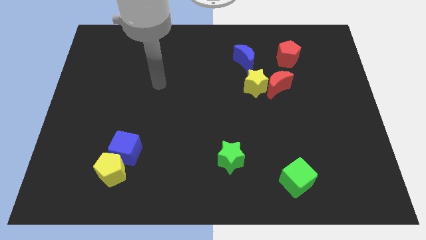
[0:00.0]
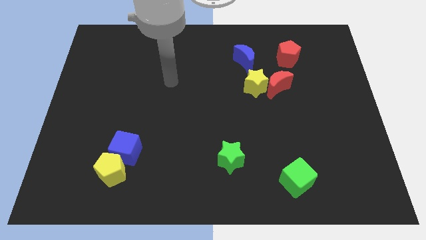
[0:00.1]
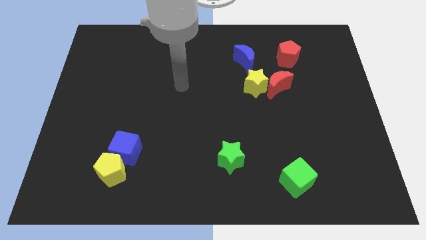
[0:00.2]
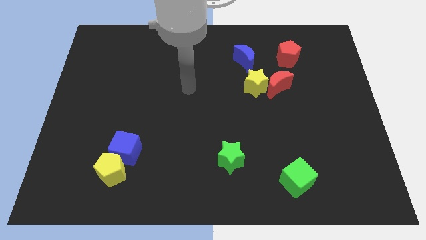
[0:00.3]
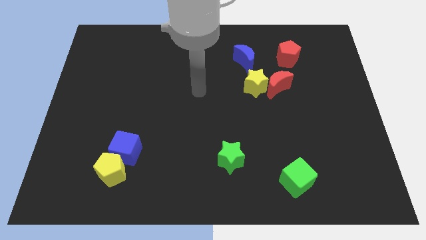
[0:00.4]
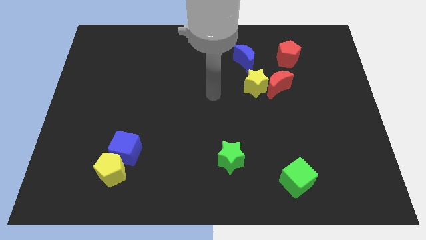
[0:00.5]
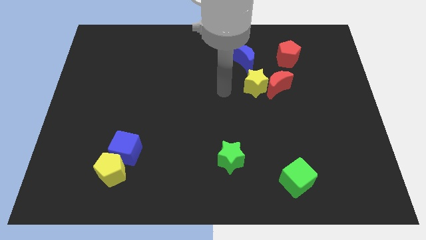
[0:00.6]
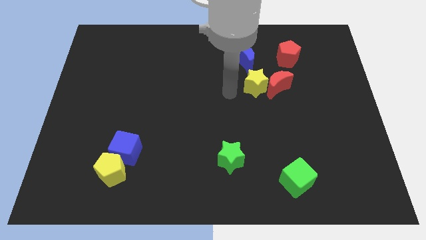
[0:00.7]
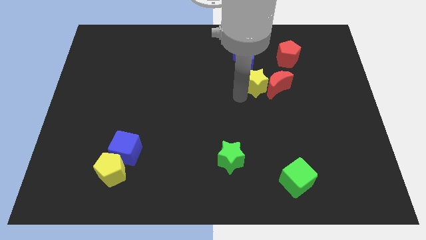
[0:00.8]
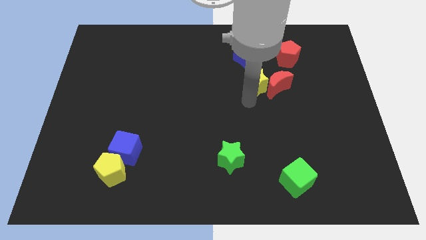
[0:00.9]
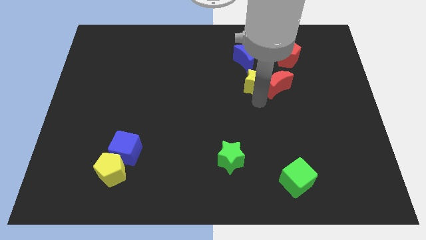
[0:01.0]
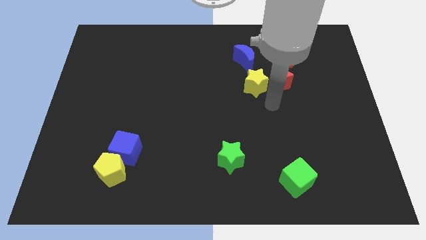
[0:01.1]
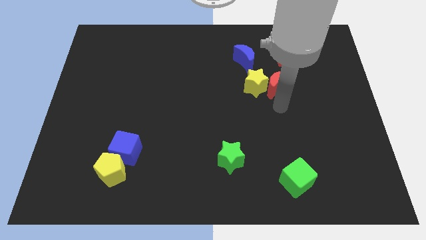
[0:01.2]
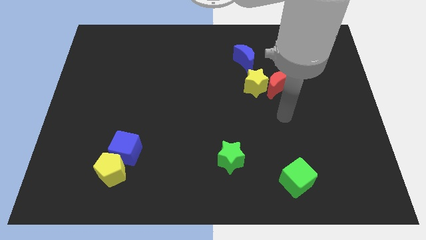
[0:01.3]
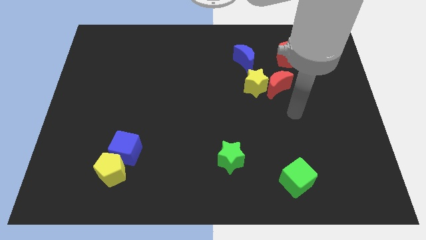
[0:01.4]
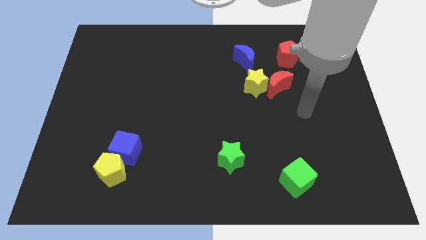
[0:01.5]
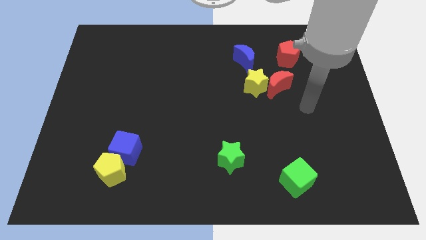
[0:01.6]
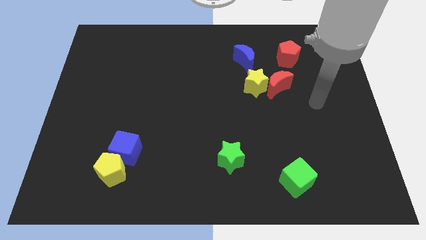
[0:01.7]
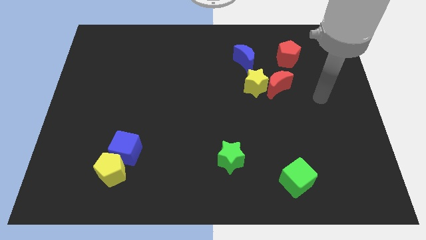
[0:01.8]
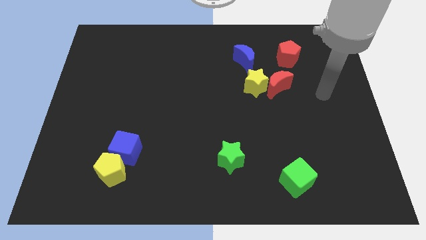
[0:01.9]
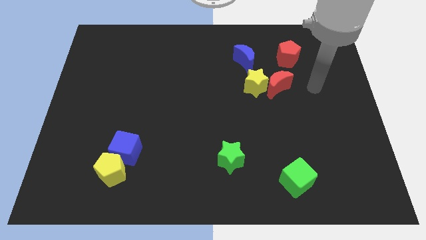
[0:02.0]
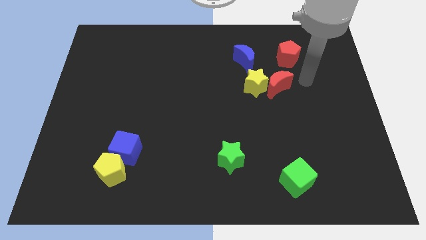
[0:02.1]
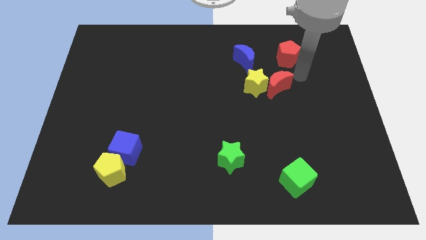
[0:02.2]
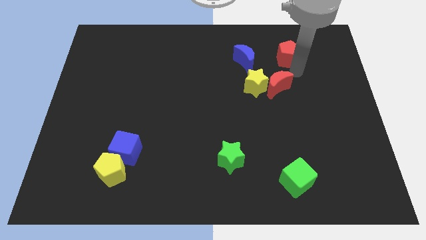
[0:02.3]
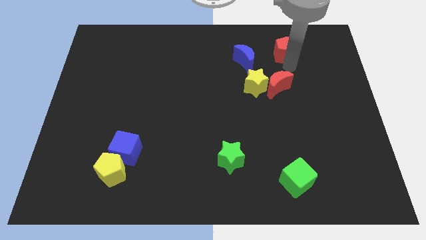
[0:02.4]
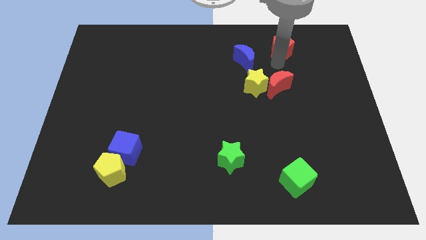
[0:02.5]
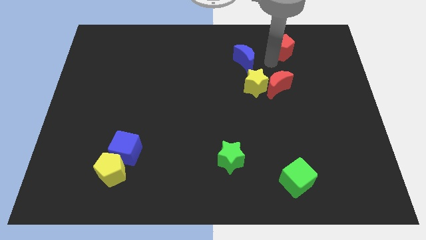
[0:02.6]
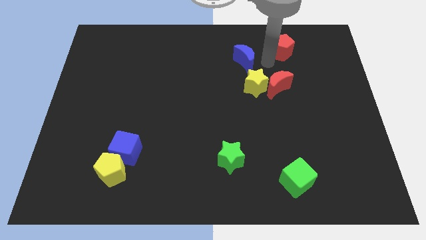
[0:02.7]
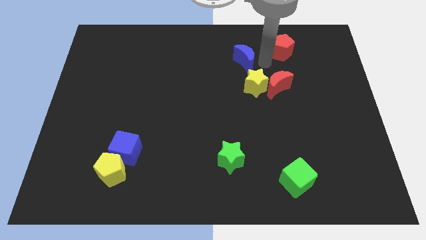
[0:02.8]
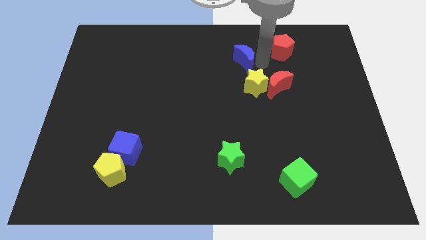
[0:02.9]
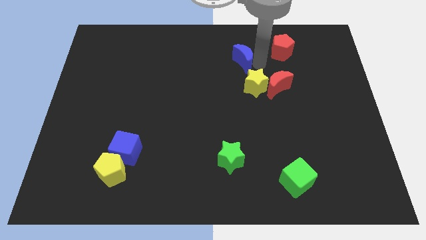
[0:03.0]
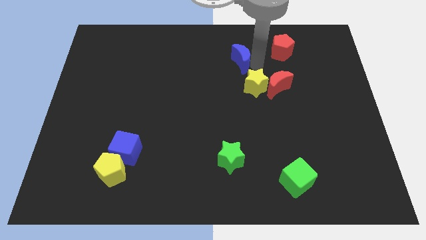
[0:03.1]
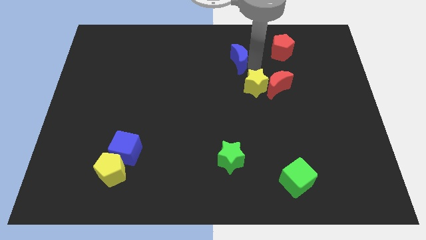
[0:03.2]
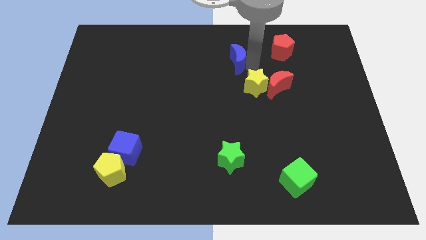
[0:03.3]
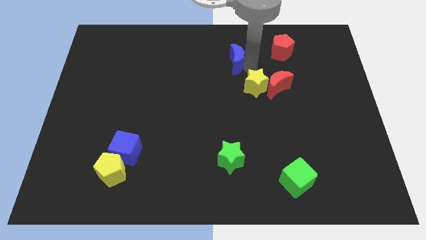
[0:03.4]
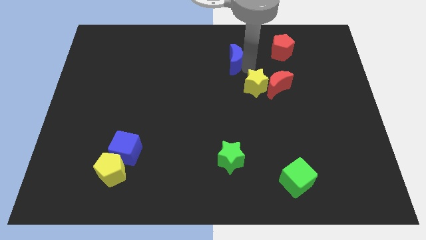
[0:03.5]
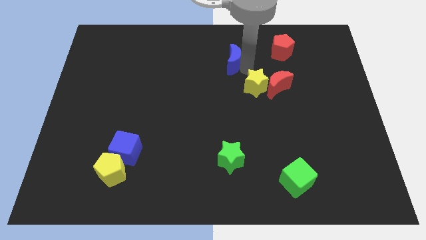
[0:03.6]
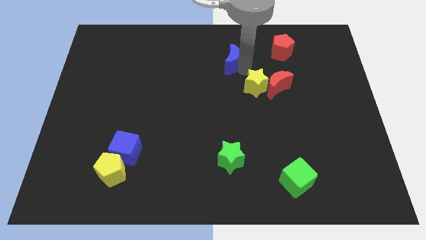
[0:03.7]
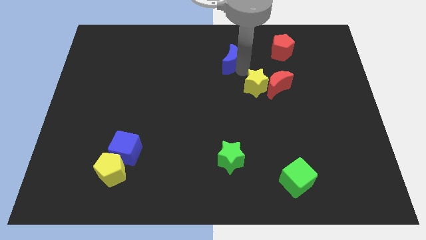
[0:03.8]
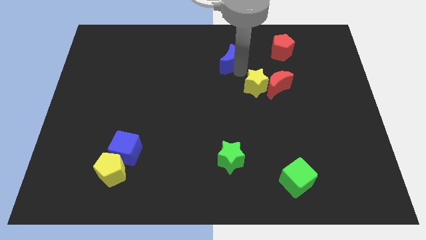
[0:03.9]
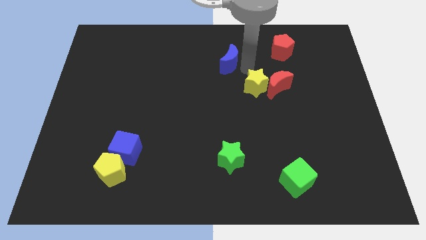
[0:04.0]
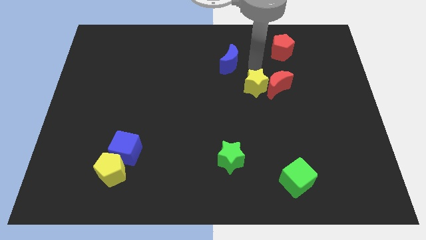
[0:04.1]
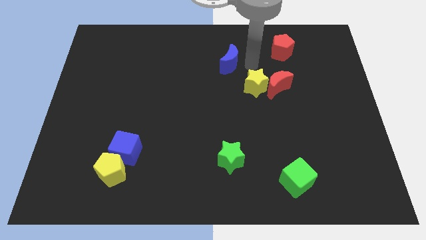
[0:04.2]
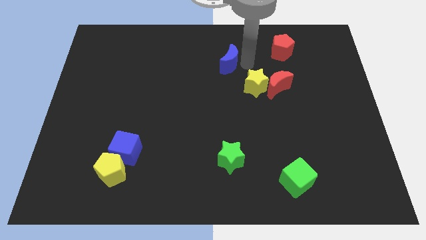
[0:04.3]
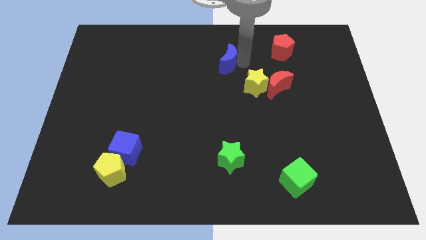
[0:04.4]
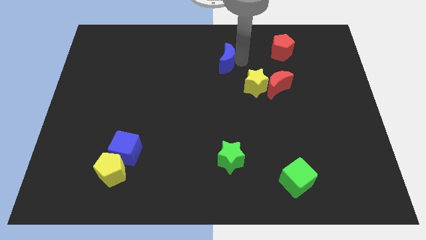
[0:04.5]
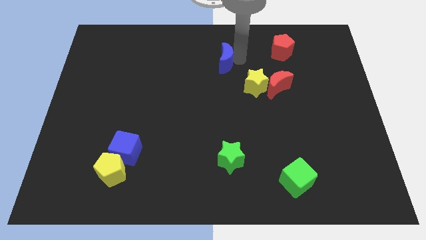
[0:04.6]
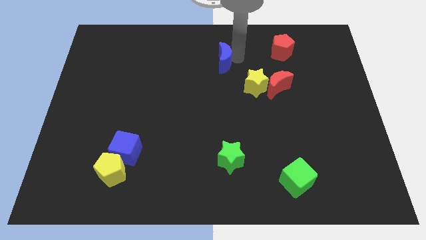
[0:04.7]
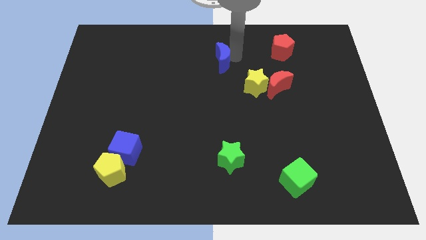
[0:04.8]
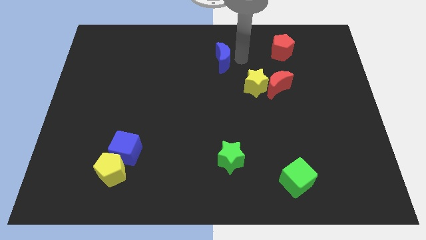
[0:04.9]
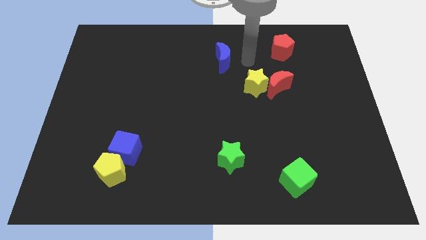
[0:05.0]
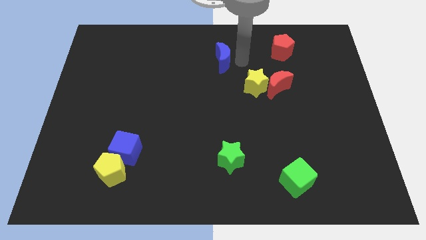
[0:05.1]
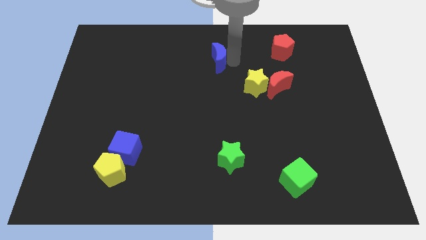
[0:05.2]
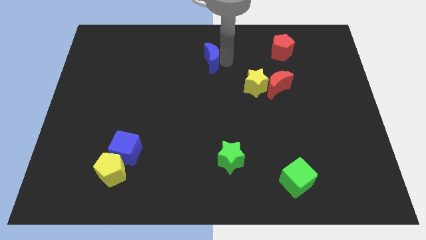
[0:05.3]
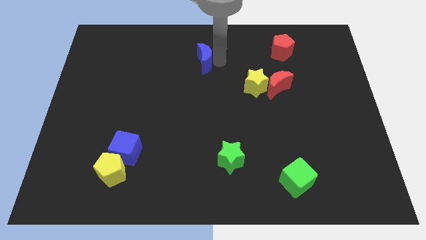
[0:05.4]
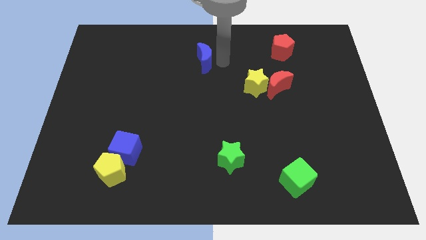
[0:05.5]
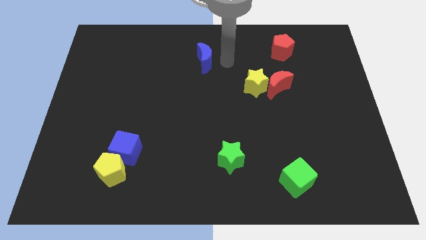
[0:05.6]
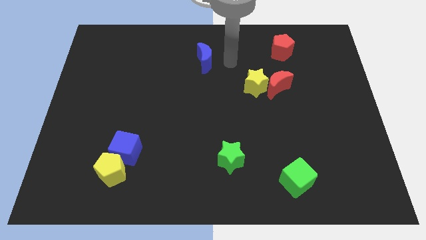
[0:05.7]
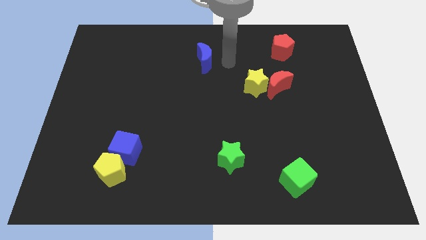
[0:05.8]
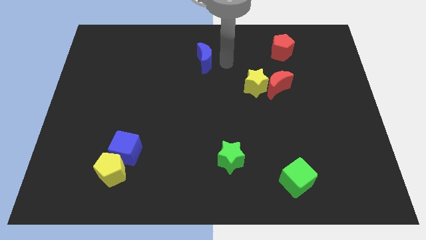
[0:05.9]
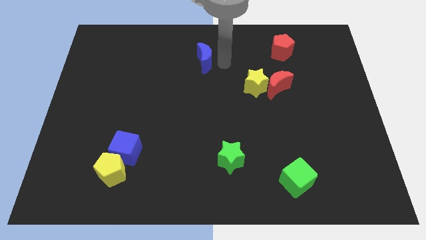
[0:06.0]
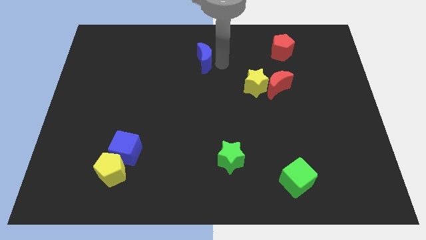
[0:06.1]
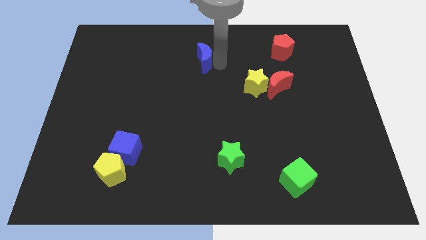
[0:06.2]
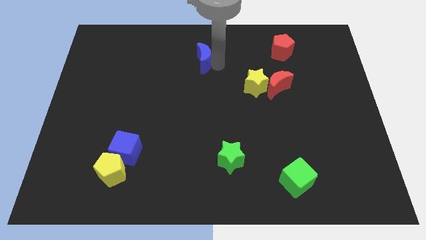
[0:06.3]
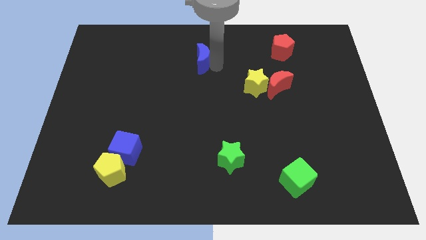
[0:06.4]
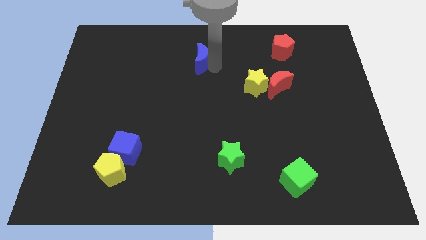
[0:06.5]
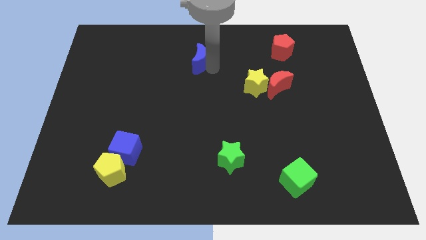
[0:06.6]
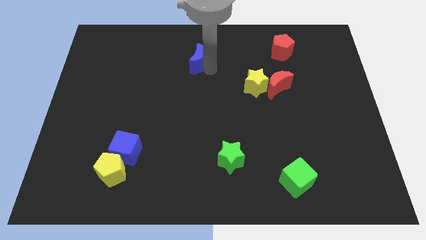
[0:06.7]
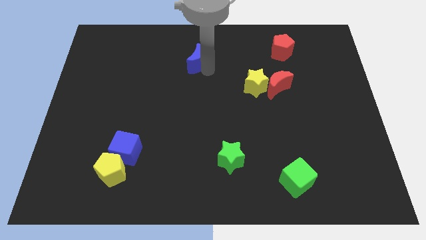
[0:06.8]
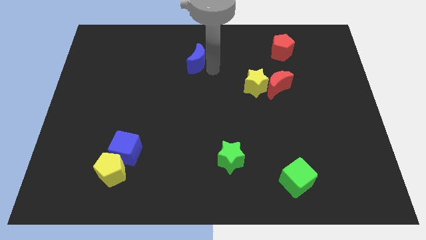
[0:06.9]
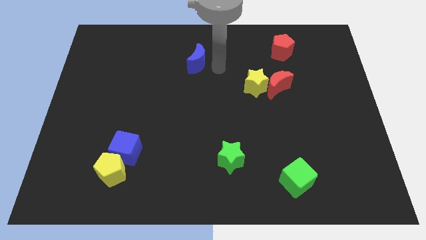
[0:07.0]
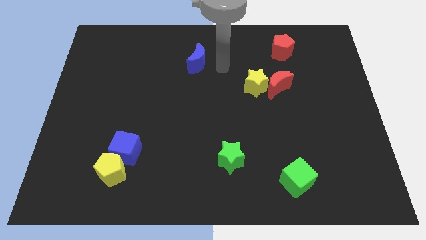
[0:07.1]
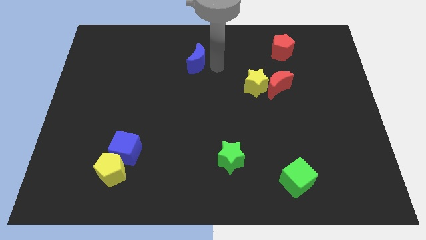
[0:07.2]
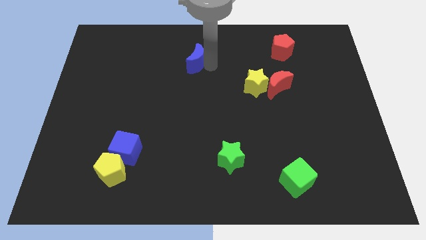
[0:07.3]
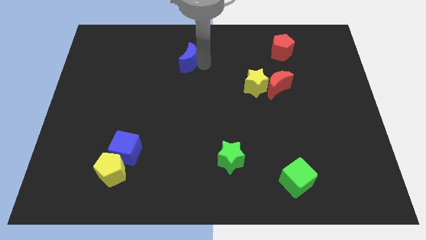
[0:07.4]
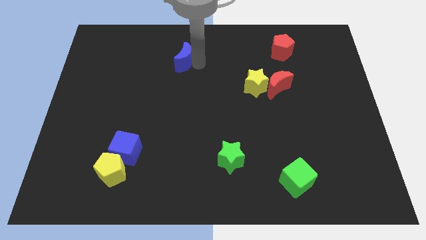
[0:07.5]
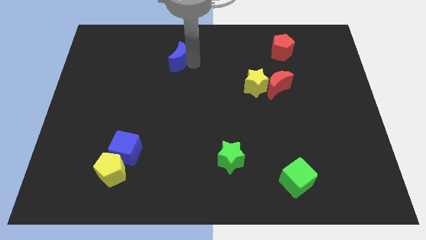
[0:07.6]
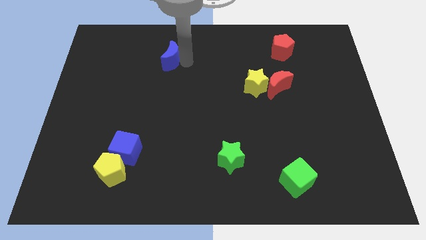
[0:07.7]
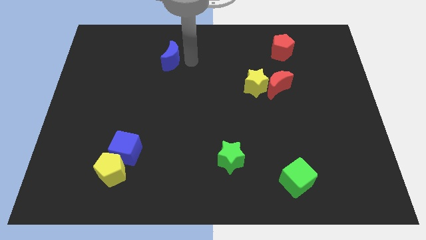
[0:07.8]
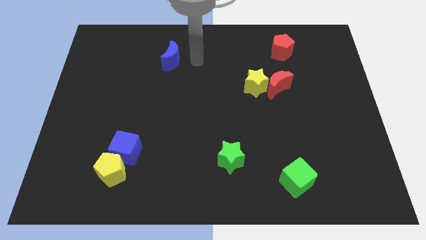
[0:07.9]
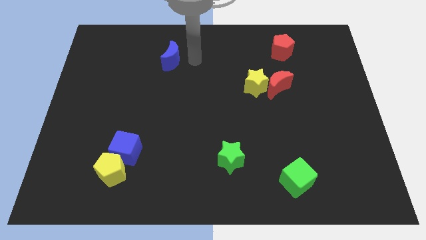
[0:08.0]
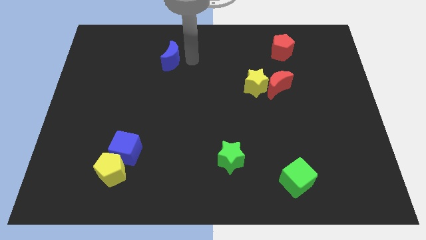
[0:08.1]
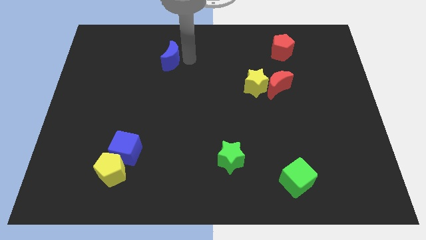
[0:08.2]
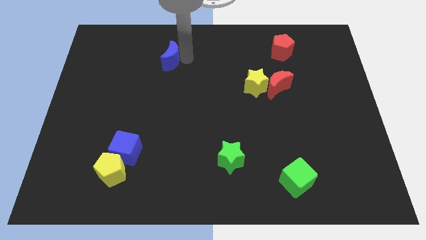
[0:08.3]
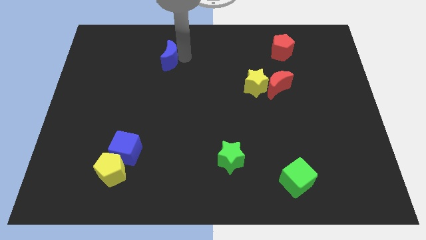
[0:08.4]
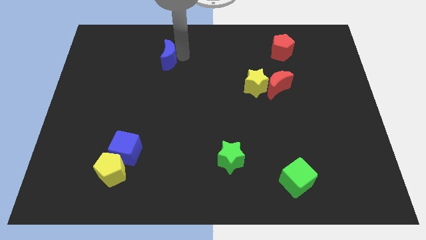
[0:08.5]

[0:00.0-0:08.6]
move the blue moon left
